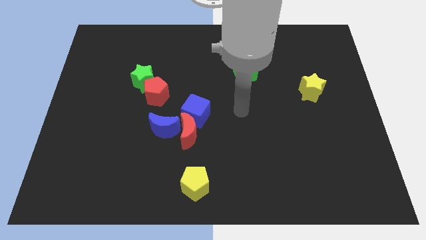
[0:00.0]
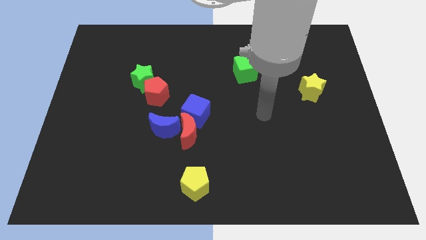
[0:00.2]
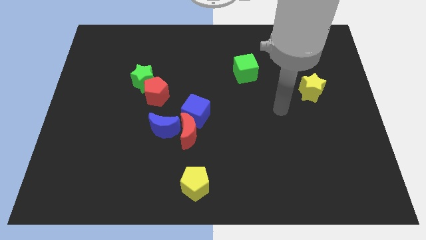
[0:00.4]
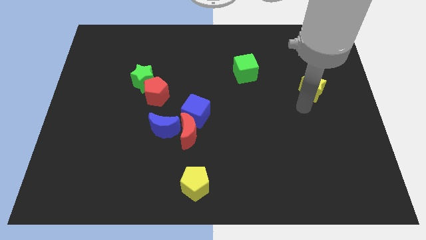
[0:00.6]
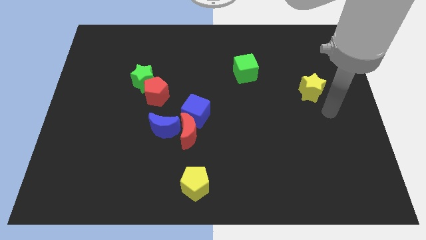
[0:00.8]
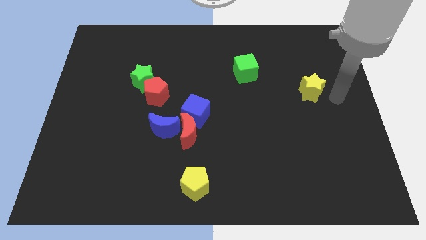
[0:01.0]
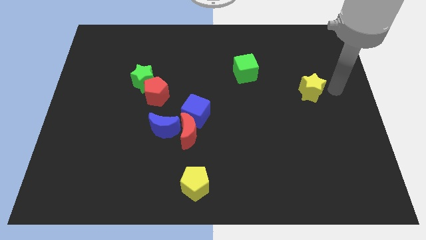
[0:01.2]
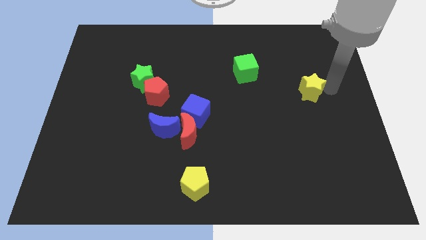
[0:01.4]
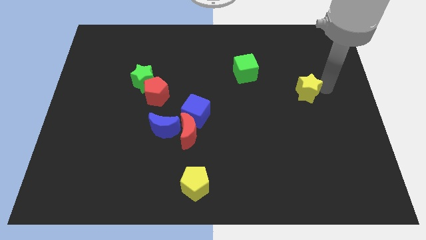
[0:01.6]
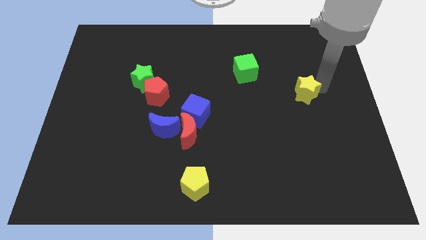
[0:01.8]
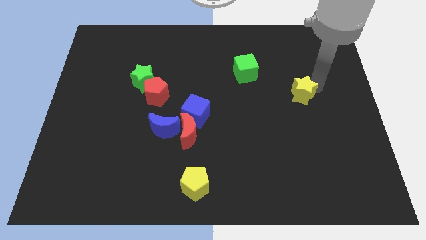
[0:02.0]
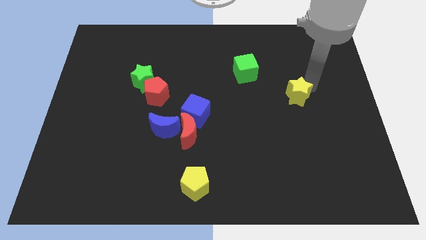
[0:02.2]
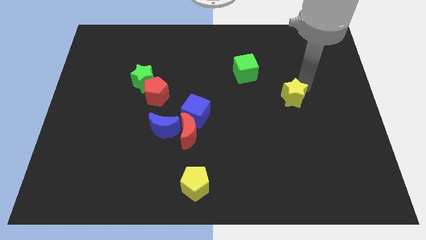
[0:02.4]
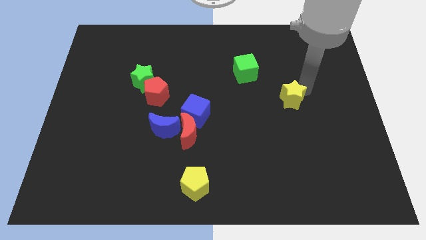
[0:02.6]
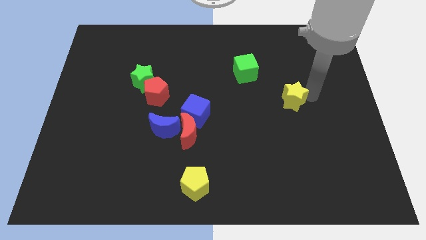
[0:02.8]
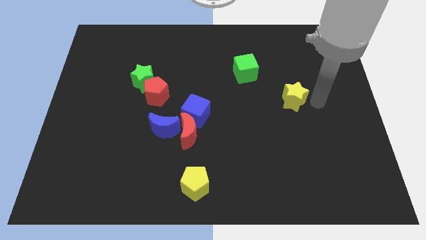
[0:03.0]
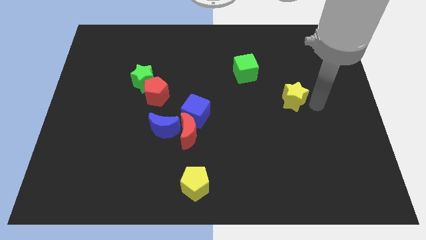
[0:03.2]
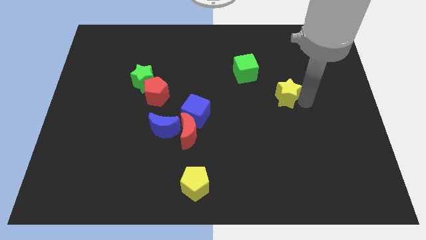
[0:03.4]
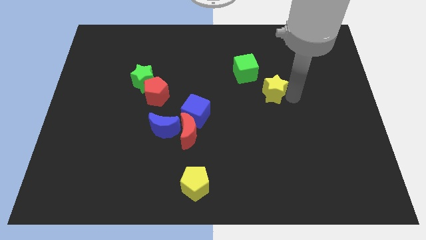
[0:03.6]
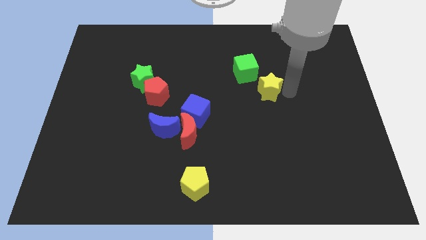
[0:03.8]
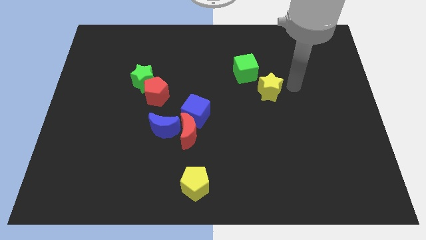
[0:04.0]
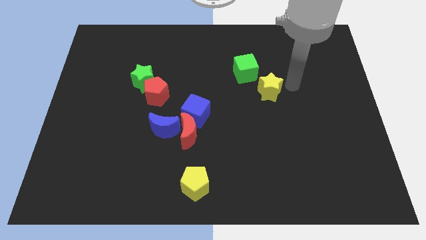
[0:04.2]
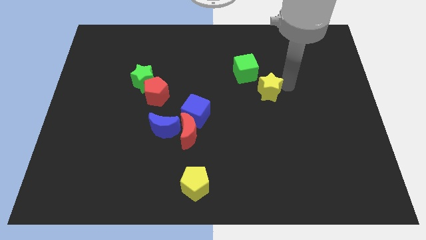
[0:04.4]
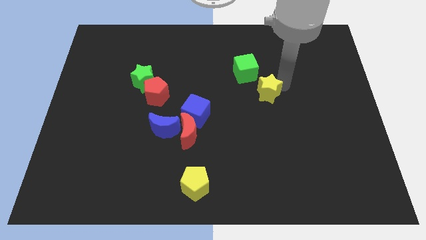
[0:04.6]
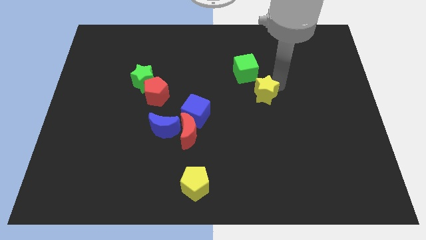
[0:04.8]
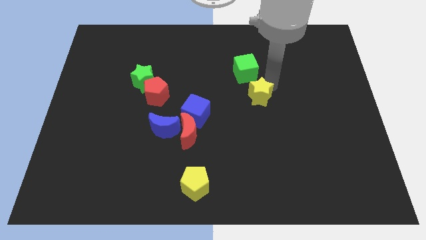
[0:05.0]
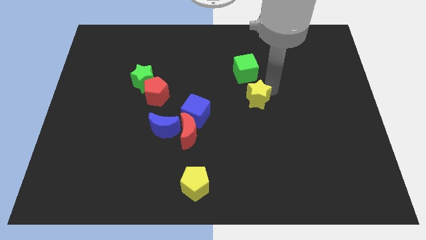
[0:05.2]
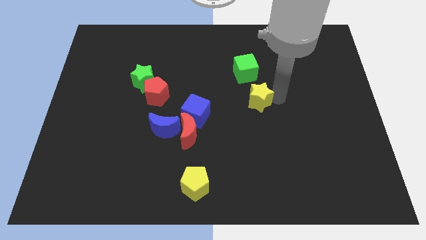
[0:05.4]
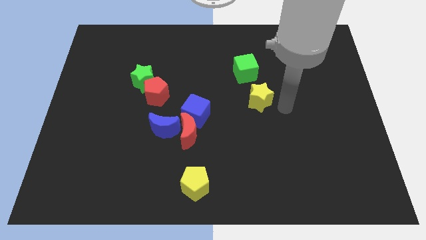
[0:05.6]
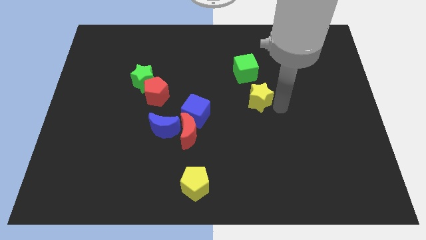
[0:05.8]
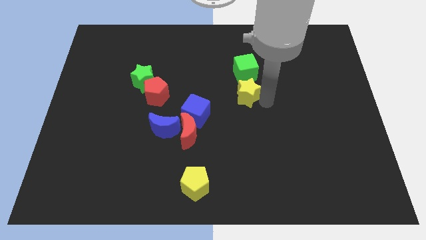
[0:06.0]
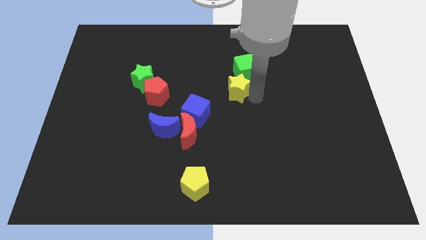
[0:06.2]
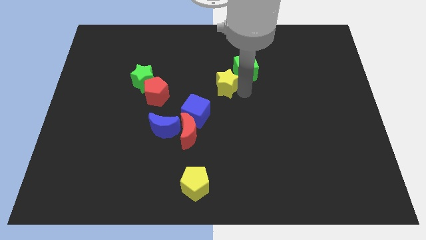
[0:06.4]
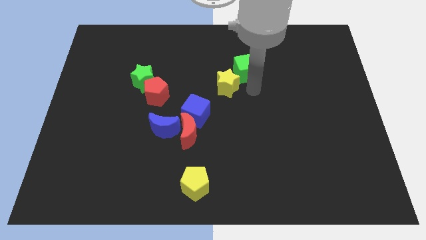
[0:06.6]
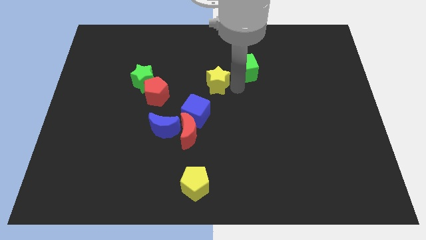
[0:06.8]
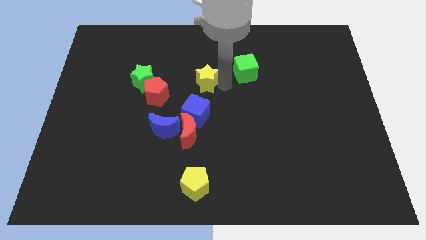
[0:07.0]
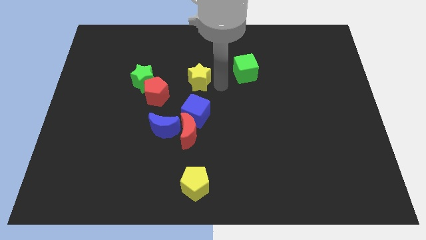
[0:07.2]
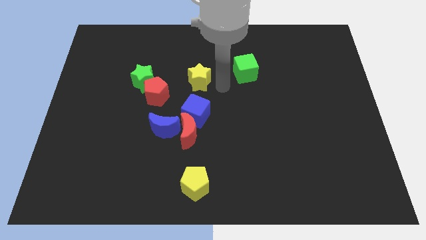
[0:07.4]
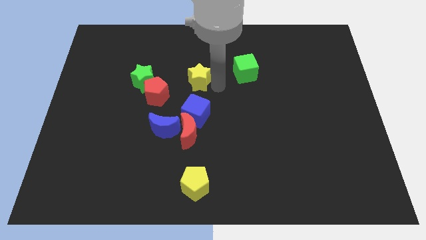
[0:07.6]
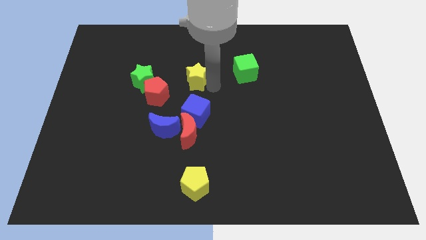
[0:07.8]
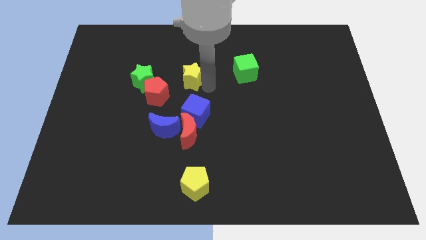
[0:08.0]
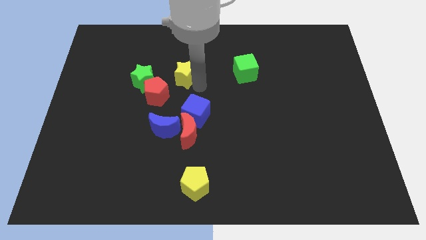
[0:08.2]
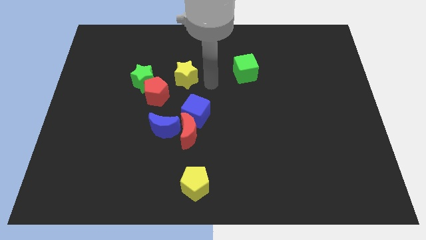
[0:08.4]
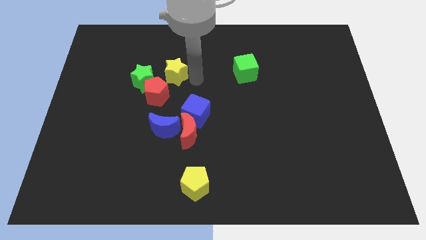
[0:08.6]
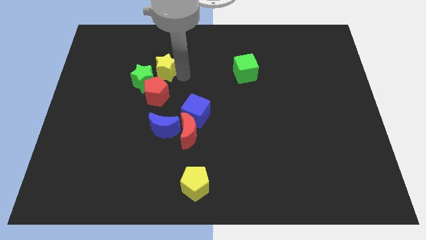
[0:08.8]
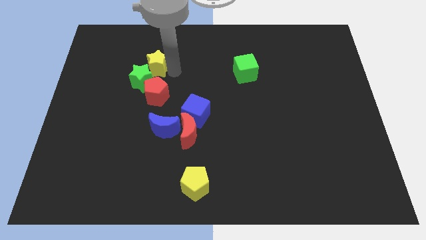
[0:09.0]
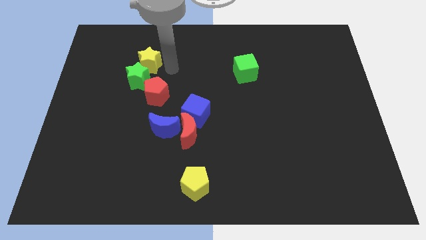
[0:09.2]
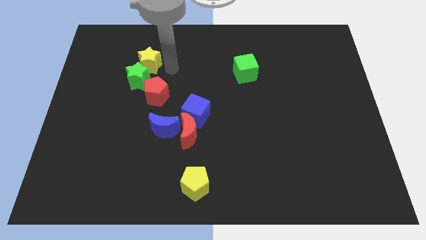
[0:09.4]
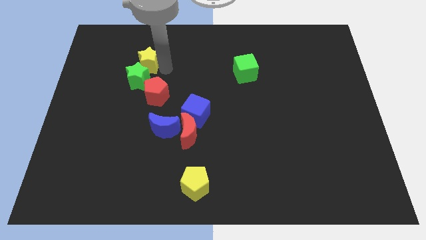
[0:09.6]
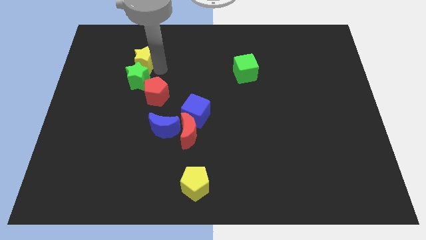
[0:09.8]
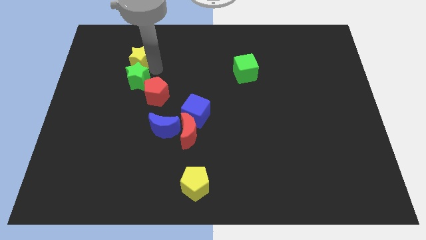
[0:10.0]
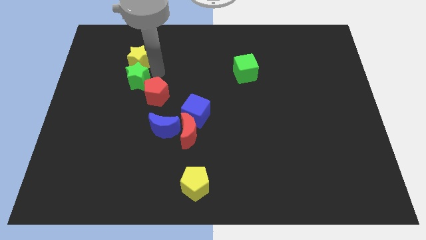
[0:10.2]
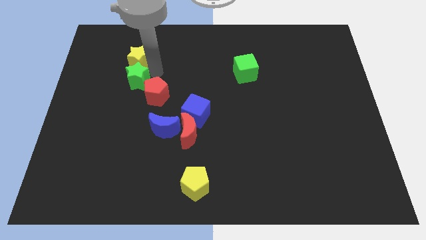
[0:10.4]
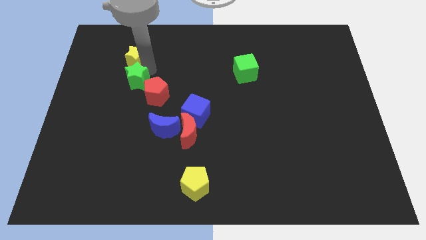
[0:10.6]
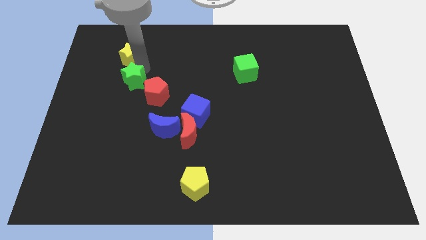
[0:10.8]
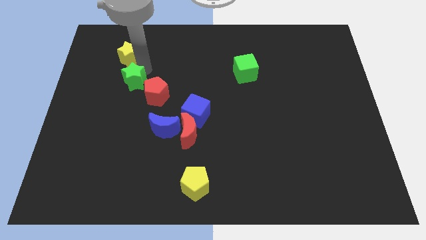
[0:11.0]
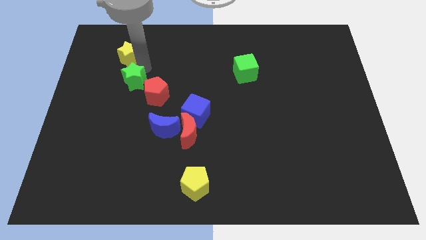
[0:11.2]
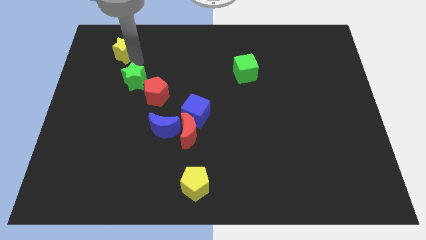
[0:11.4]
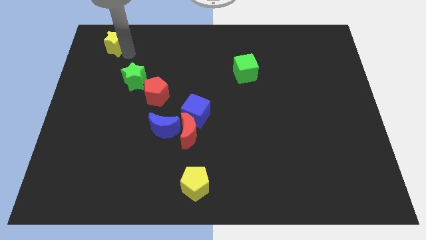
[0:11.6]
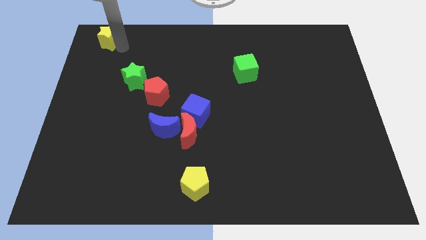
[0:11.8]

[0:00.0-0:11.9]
slide the yellow star to the upper left corner
